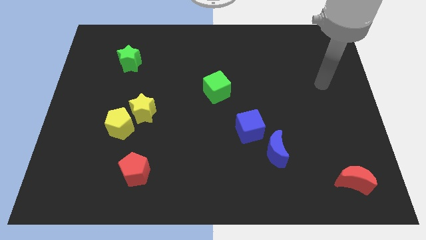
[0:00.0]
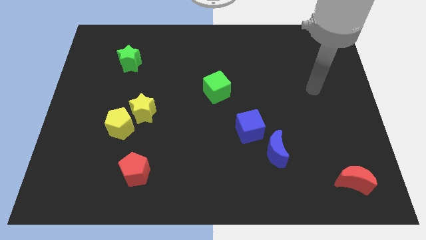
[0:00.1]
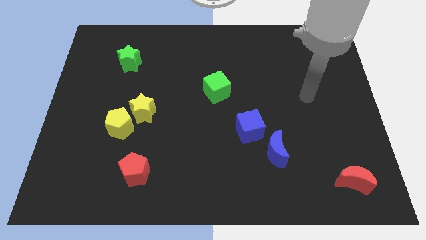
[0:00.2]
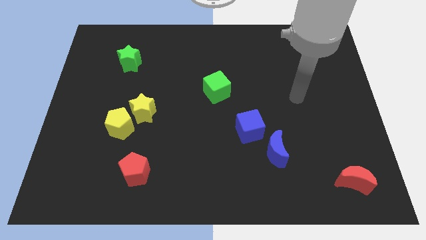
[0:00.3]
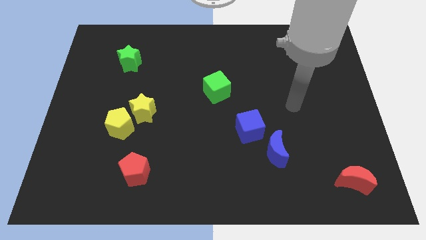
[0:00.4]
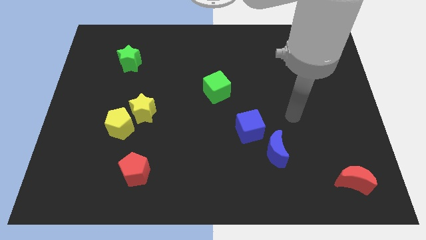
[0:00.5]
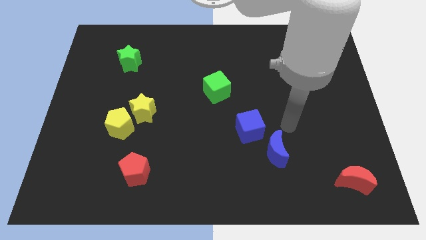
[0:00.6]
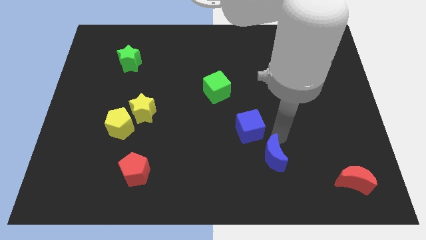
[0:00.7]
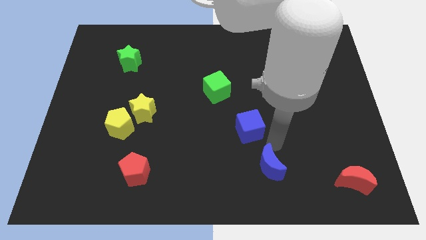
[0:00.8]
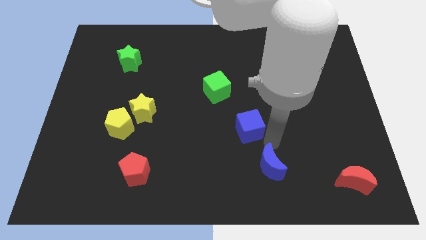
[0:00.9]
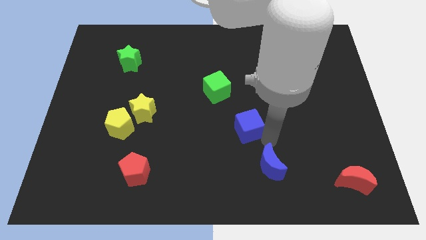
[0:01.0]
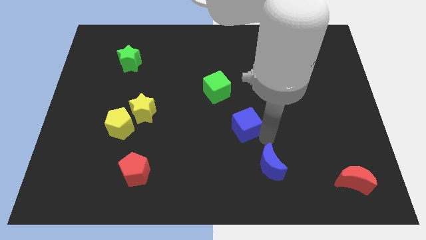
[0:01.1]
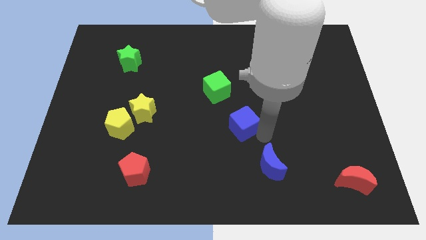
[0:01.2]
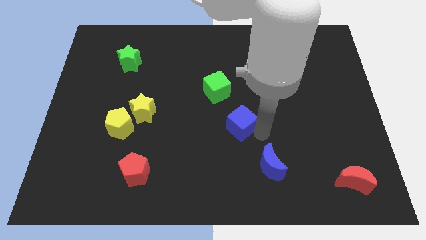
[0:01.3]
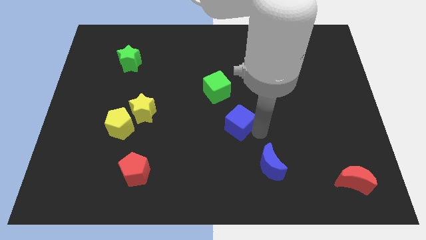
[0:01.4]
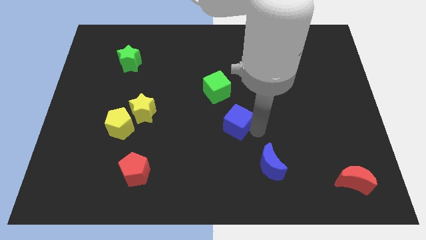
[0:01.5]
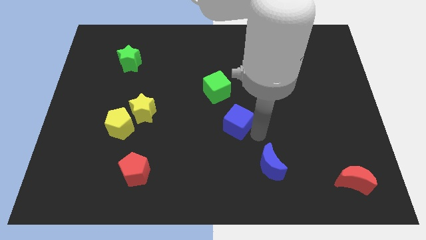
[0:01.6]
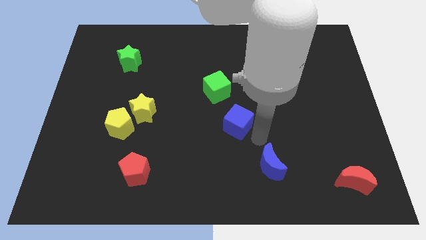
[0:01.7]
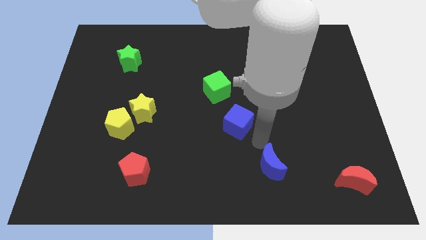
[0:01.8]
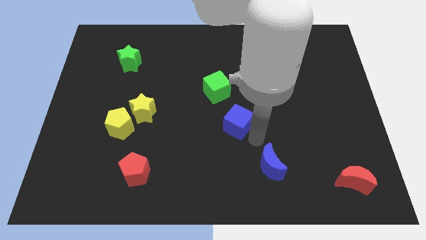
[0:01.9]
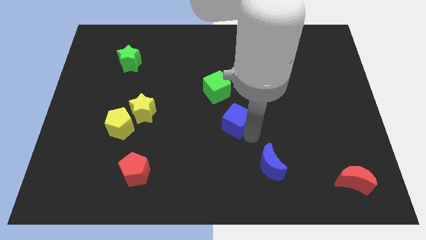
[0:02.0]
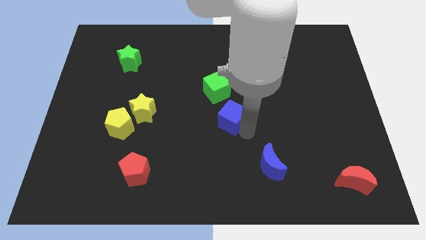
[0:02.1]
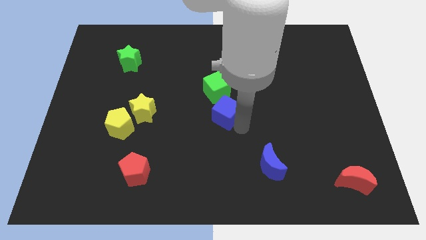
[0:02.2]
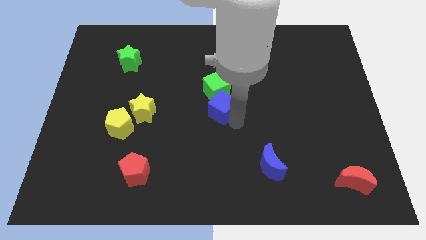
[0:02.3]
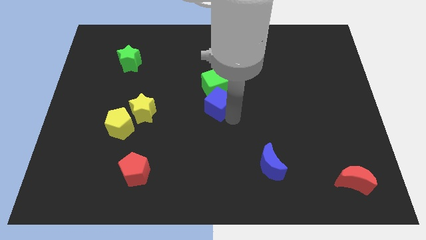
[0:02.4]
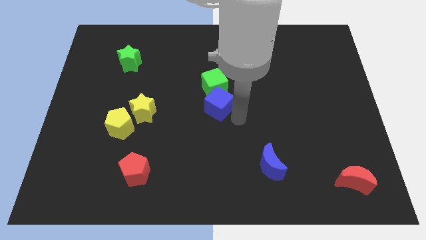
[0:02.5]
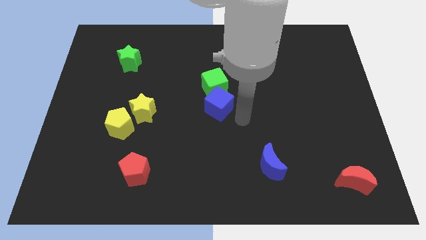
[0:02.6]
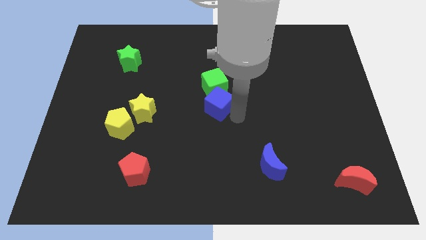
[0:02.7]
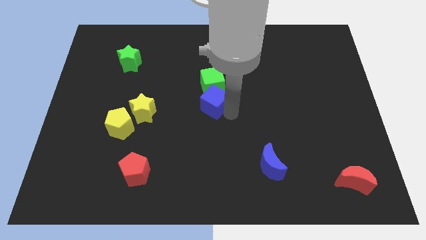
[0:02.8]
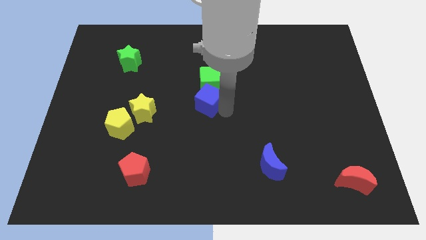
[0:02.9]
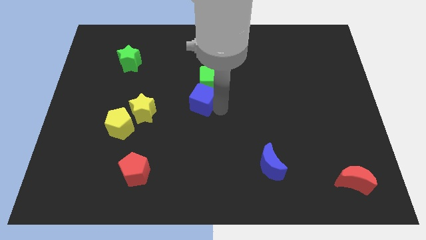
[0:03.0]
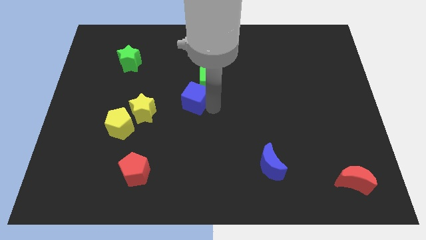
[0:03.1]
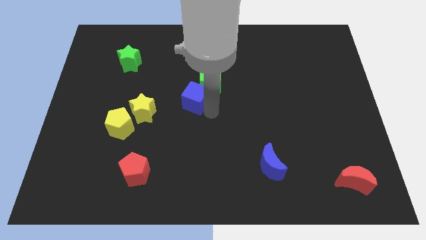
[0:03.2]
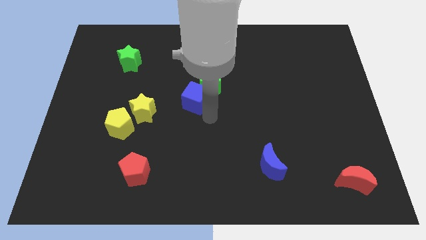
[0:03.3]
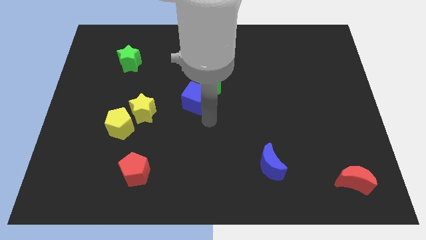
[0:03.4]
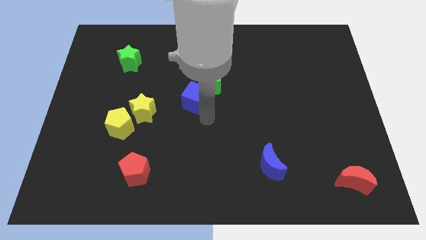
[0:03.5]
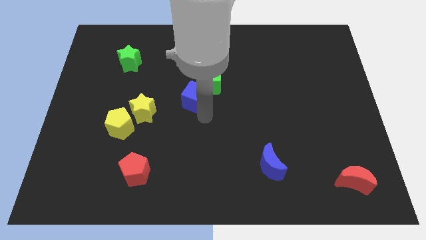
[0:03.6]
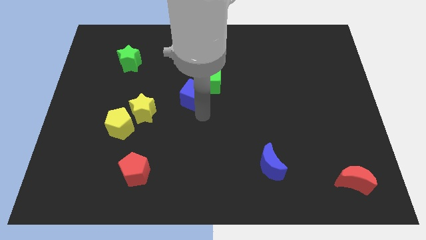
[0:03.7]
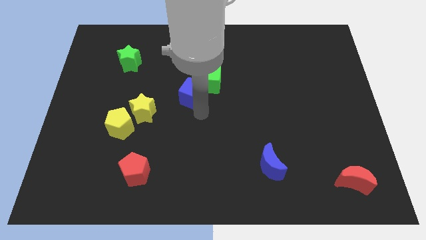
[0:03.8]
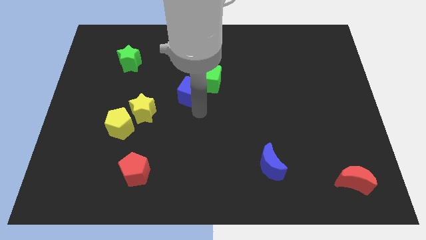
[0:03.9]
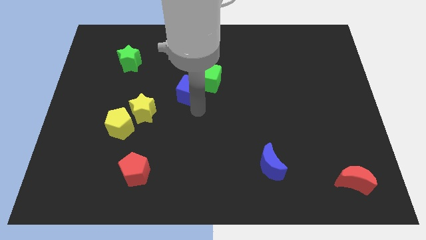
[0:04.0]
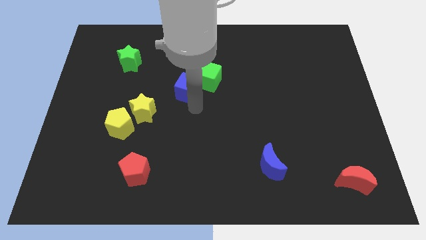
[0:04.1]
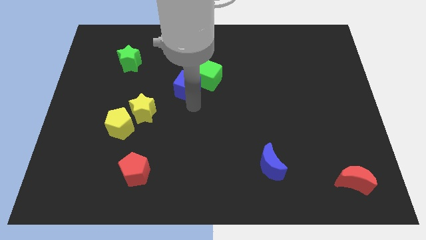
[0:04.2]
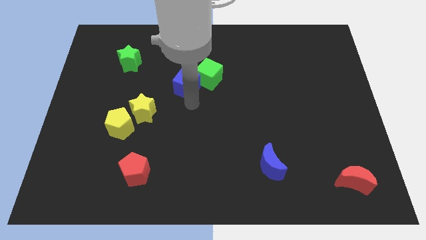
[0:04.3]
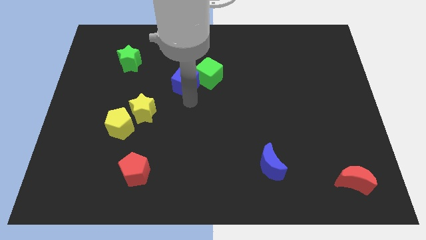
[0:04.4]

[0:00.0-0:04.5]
slide the blue cube up and left

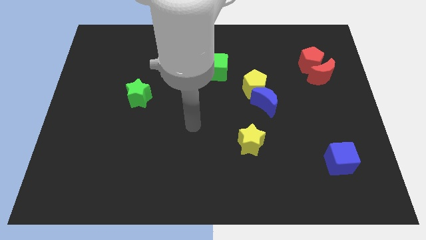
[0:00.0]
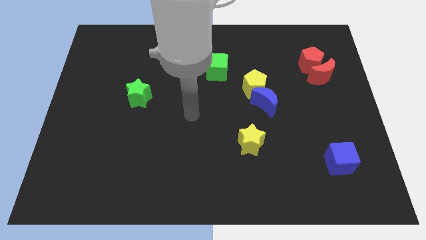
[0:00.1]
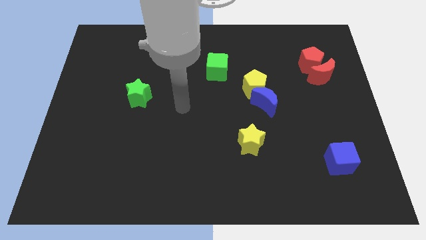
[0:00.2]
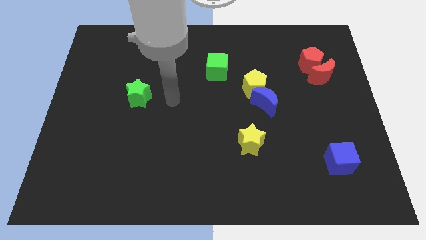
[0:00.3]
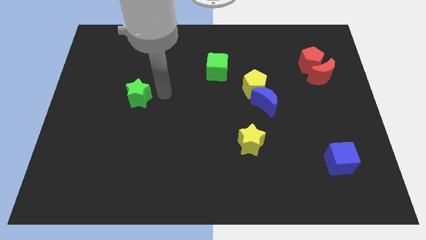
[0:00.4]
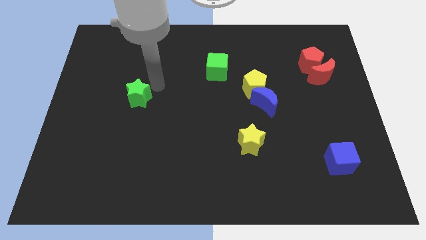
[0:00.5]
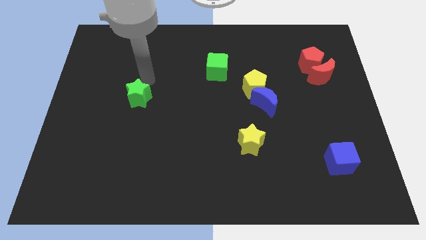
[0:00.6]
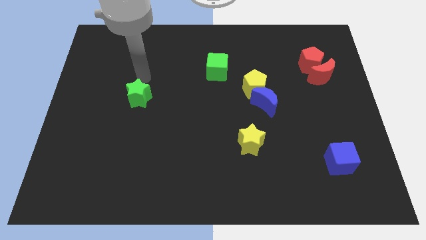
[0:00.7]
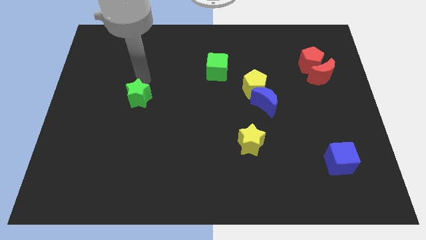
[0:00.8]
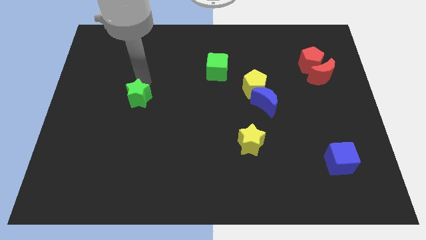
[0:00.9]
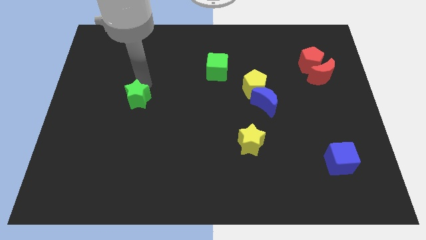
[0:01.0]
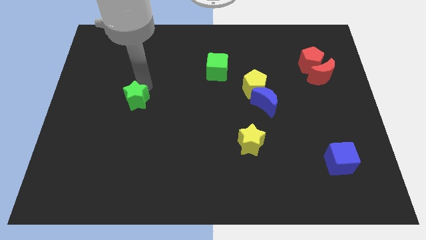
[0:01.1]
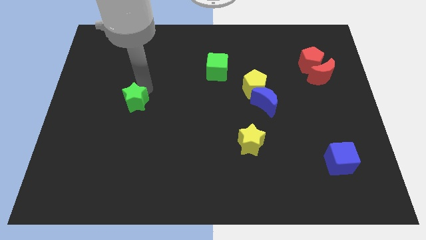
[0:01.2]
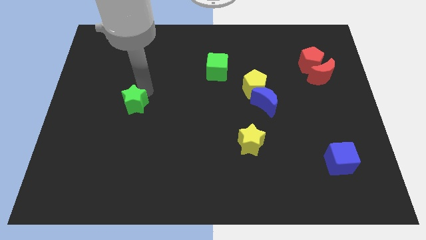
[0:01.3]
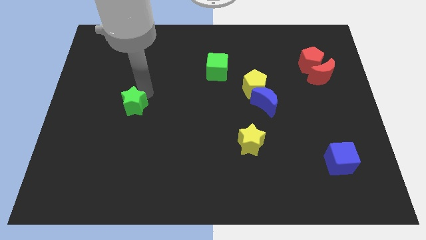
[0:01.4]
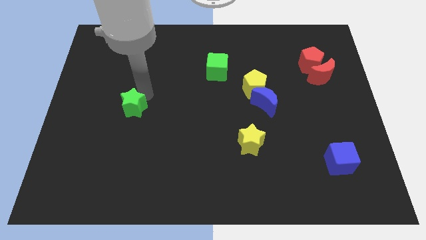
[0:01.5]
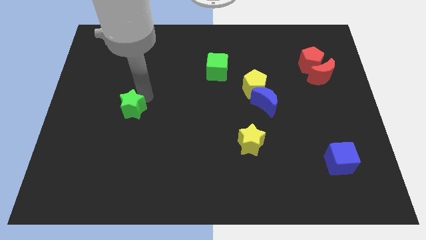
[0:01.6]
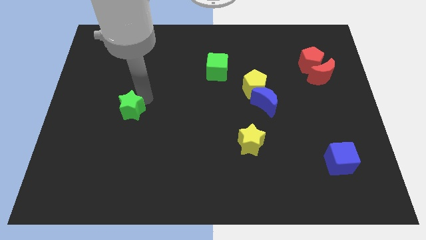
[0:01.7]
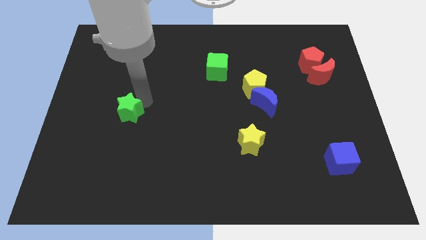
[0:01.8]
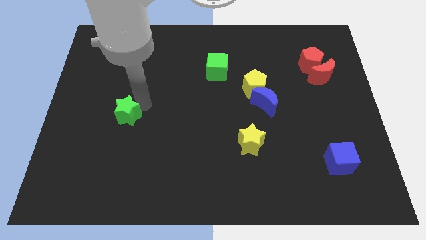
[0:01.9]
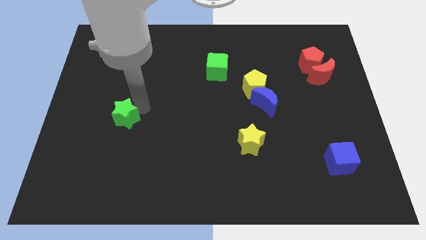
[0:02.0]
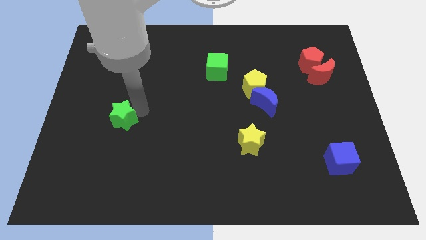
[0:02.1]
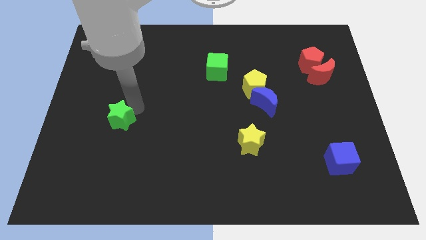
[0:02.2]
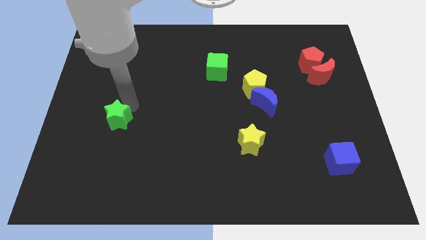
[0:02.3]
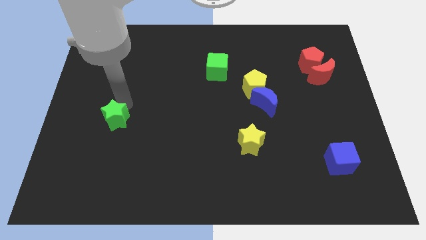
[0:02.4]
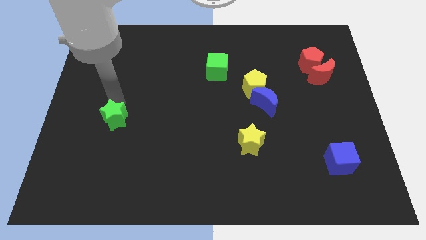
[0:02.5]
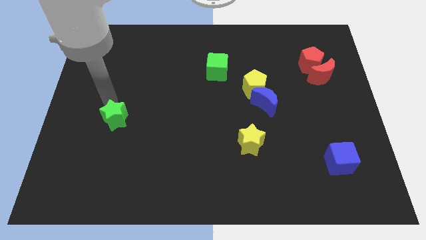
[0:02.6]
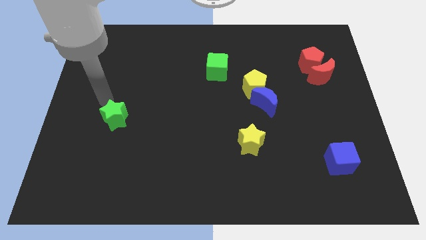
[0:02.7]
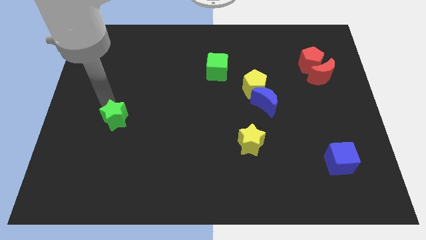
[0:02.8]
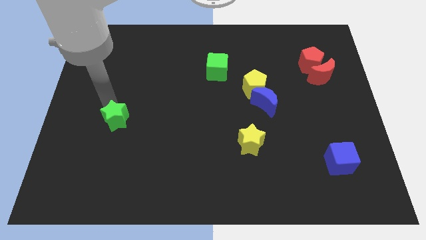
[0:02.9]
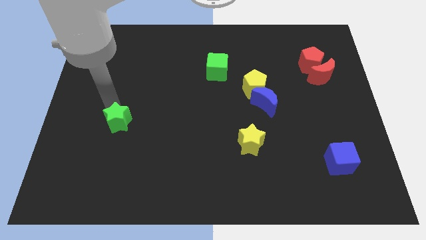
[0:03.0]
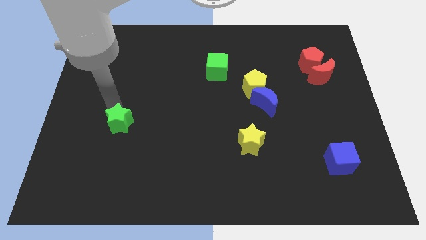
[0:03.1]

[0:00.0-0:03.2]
slide the green star downwards a little

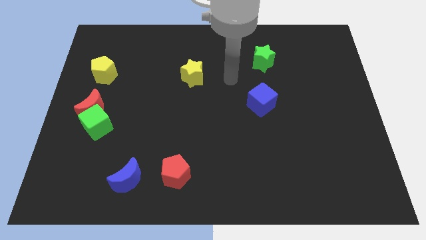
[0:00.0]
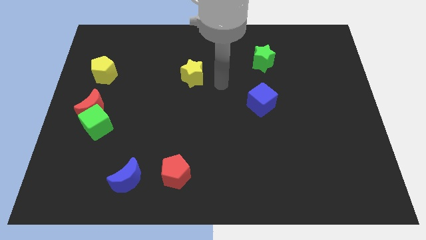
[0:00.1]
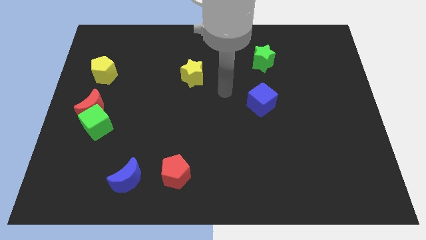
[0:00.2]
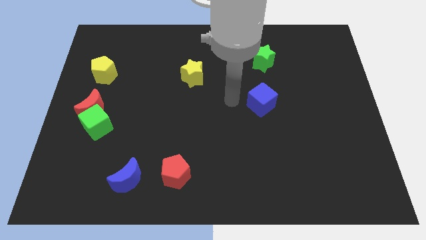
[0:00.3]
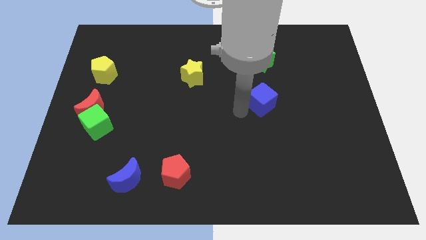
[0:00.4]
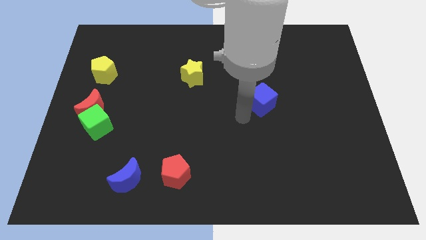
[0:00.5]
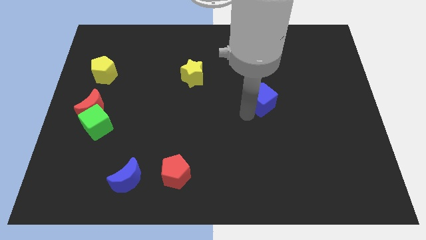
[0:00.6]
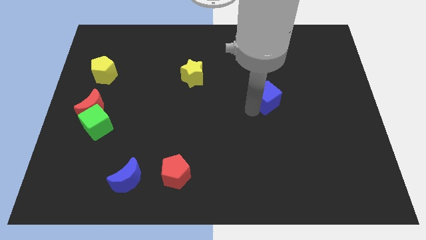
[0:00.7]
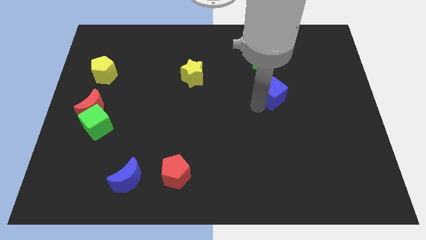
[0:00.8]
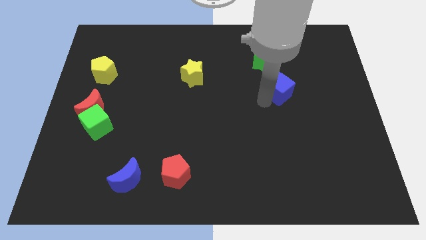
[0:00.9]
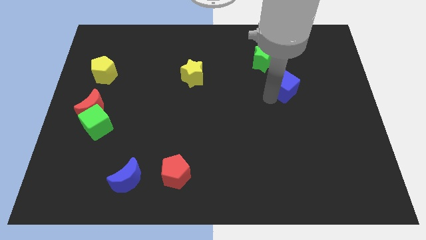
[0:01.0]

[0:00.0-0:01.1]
slide the blue cube upwards and to the right a bit
